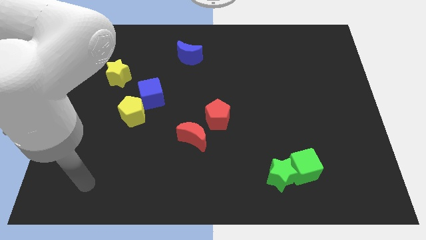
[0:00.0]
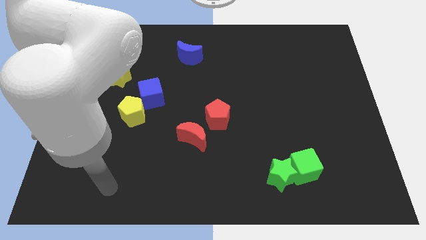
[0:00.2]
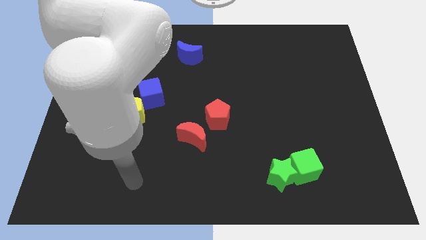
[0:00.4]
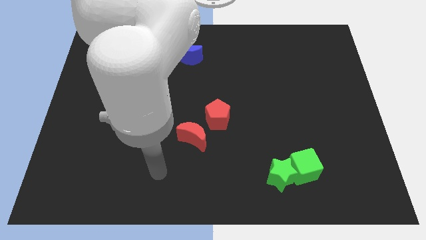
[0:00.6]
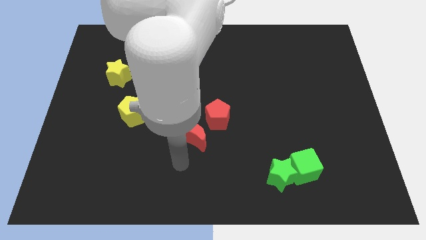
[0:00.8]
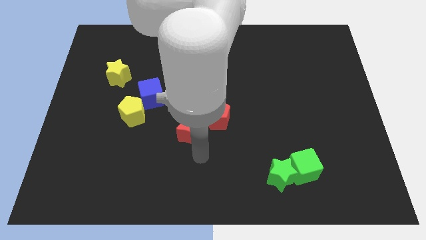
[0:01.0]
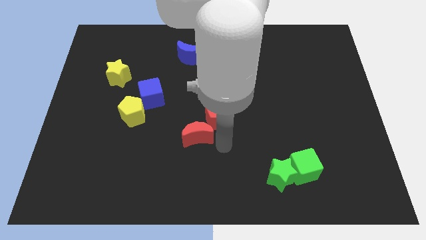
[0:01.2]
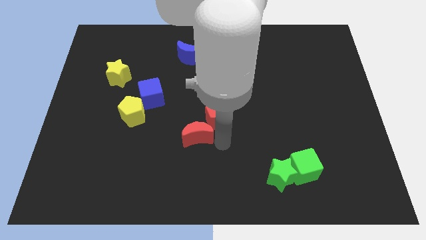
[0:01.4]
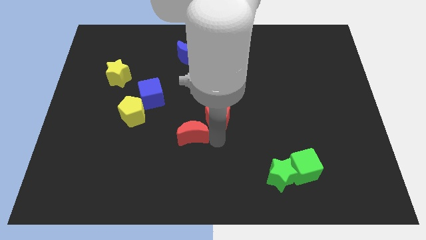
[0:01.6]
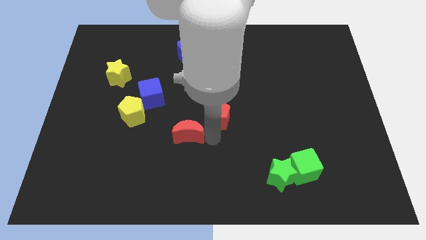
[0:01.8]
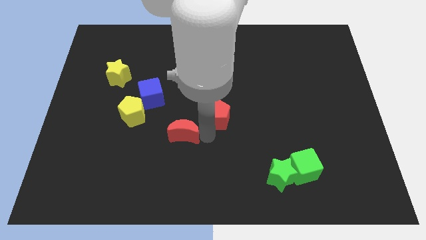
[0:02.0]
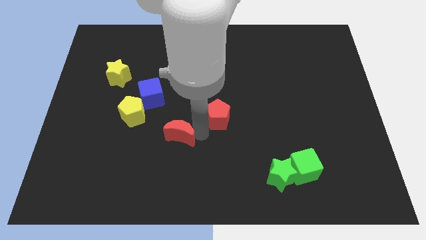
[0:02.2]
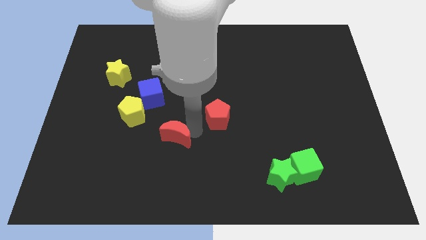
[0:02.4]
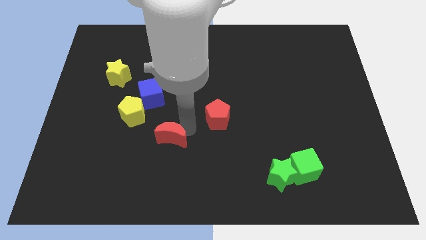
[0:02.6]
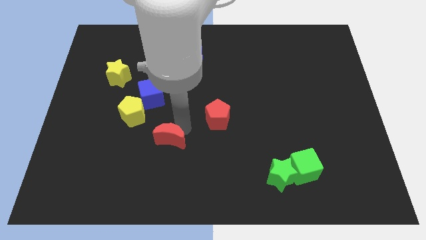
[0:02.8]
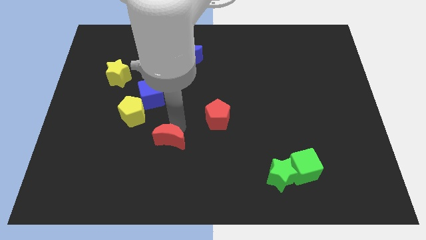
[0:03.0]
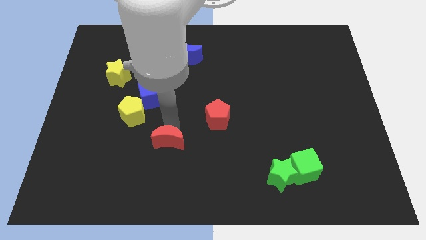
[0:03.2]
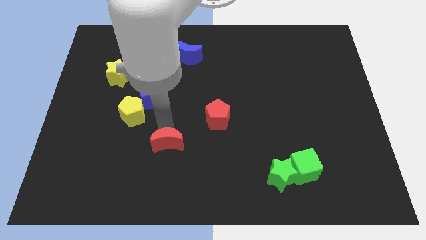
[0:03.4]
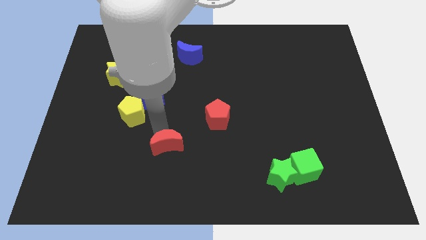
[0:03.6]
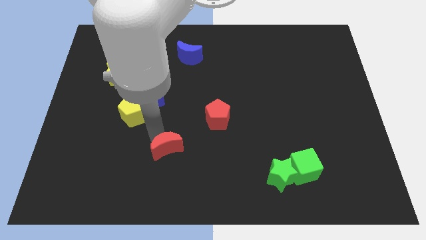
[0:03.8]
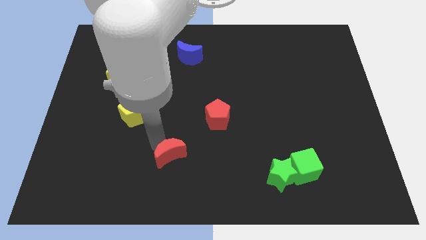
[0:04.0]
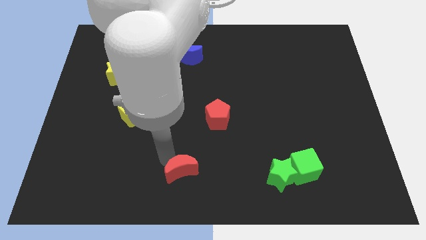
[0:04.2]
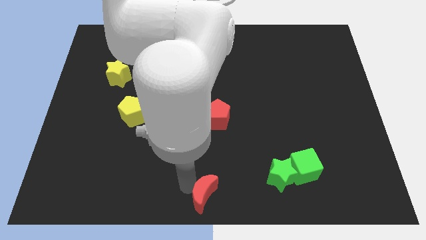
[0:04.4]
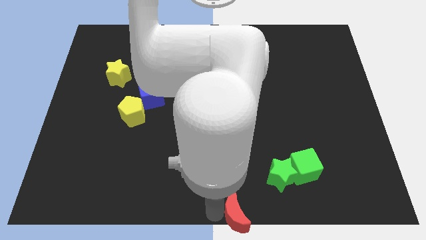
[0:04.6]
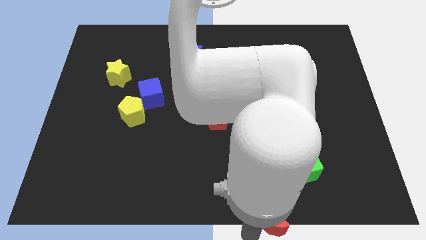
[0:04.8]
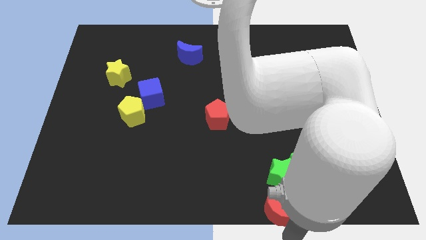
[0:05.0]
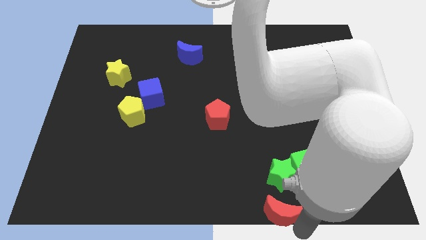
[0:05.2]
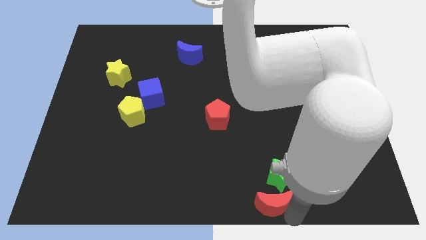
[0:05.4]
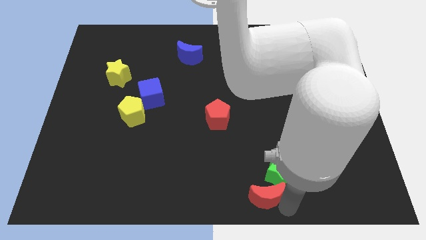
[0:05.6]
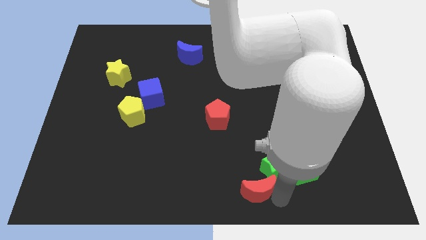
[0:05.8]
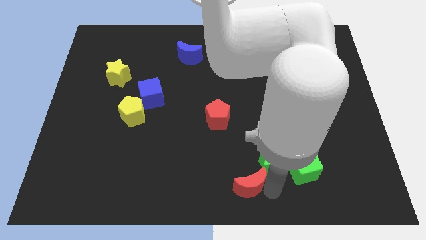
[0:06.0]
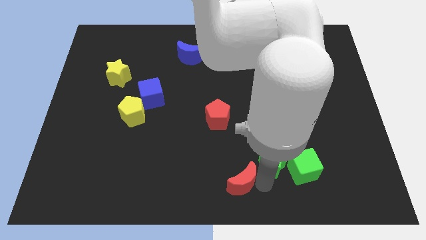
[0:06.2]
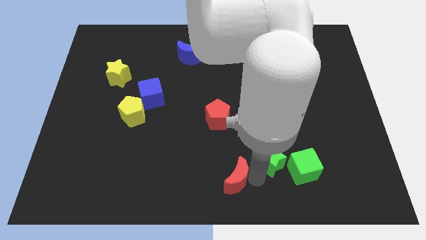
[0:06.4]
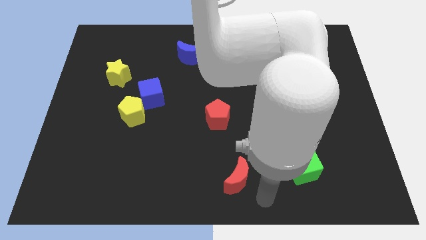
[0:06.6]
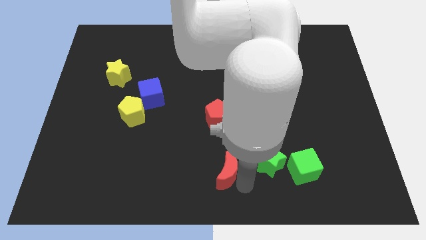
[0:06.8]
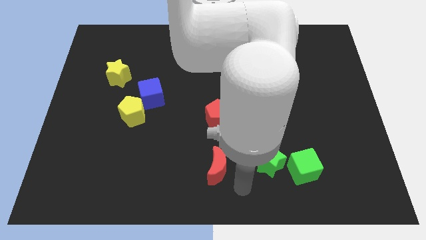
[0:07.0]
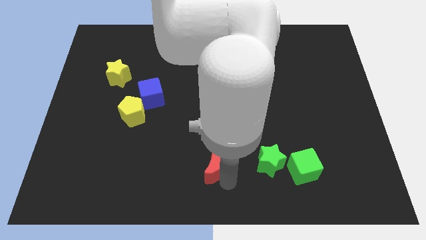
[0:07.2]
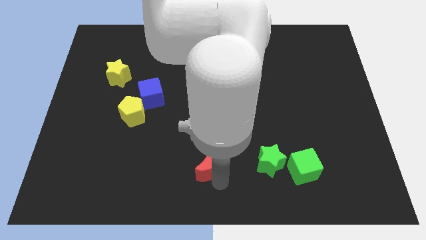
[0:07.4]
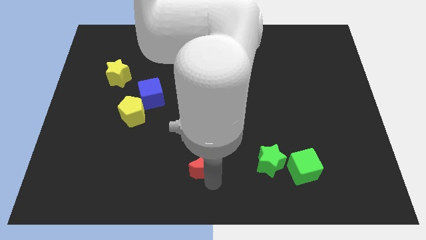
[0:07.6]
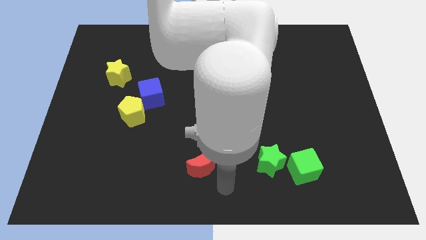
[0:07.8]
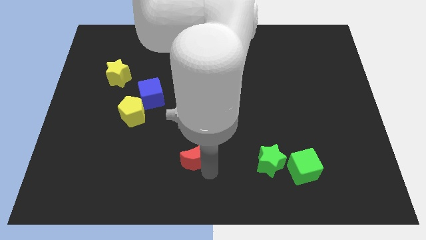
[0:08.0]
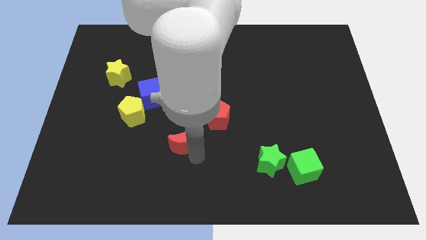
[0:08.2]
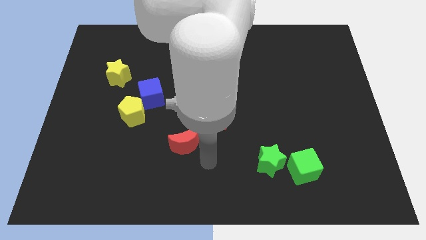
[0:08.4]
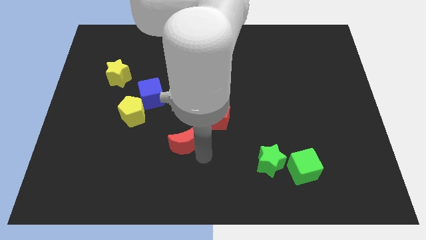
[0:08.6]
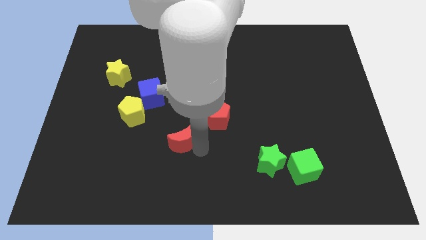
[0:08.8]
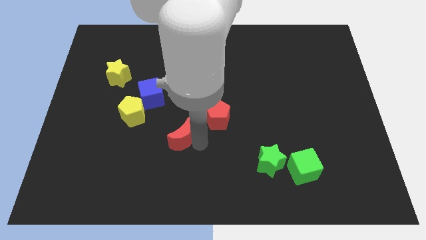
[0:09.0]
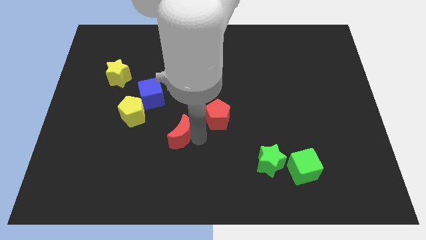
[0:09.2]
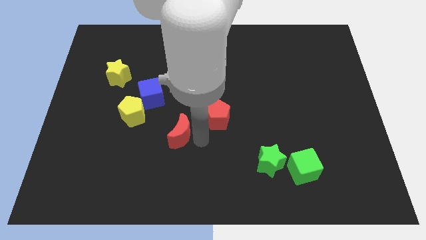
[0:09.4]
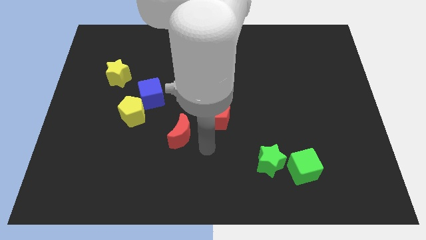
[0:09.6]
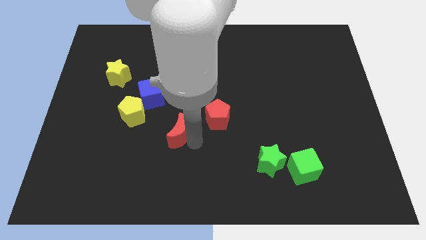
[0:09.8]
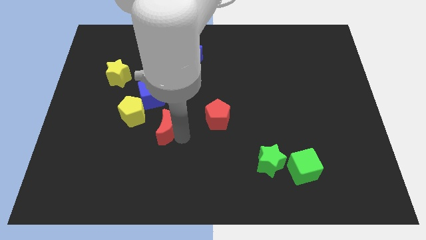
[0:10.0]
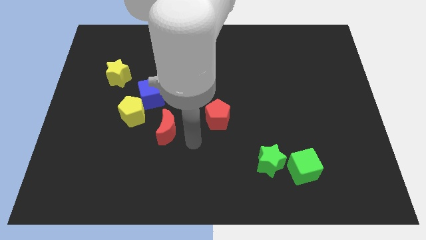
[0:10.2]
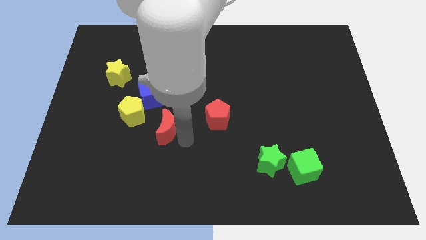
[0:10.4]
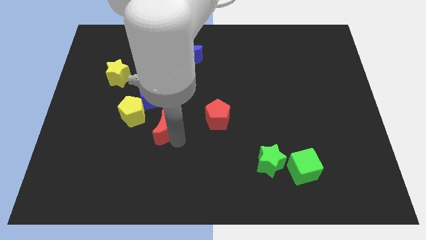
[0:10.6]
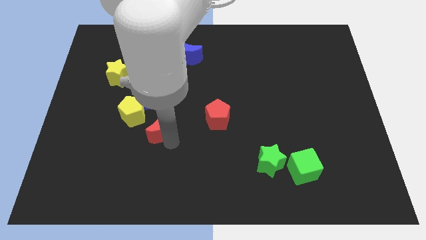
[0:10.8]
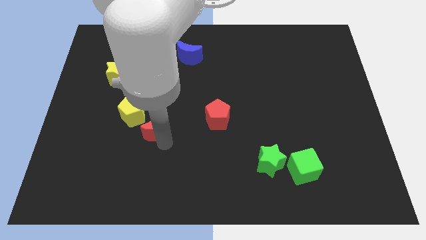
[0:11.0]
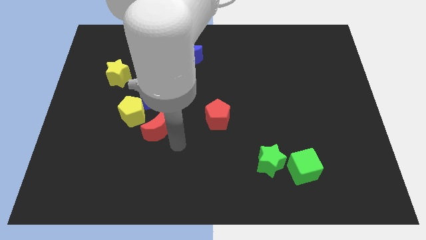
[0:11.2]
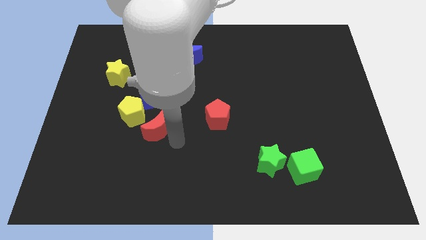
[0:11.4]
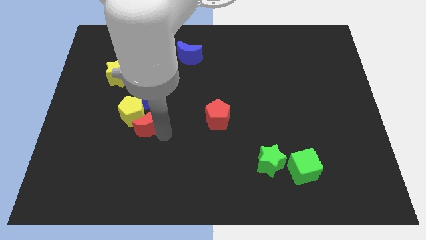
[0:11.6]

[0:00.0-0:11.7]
slide the red moon to the yellow pentagon

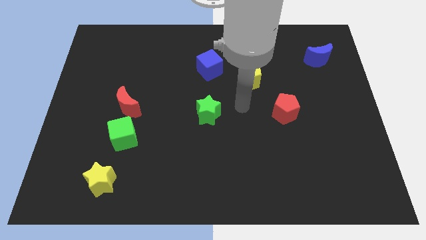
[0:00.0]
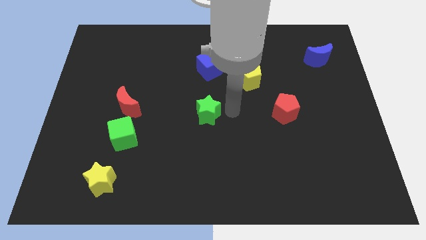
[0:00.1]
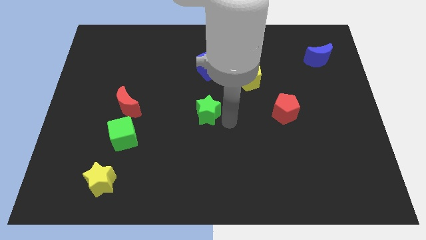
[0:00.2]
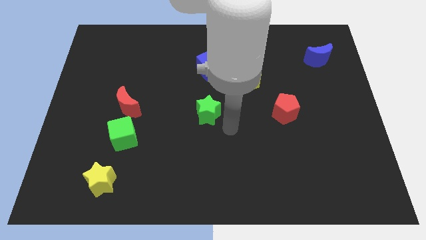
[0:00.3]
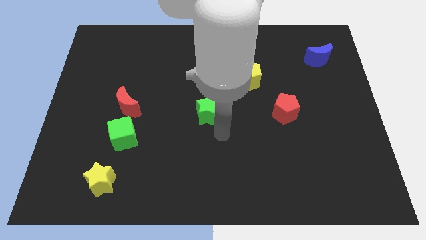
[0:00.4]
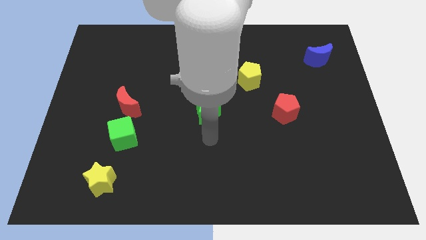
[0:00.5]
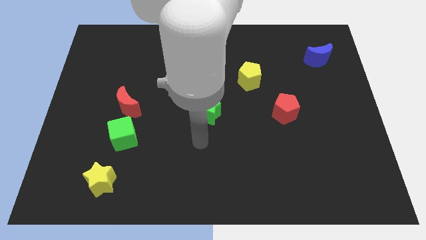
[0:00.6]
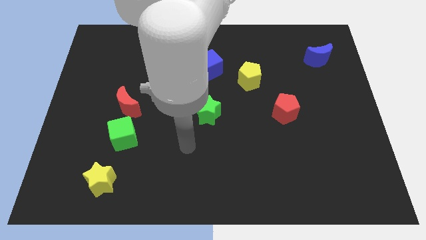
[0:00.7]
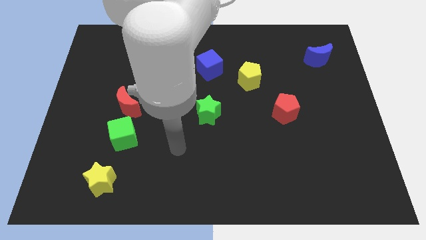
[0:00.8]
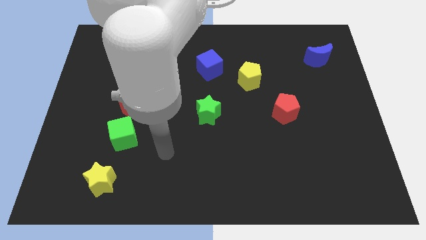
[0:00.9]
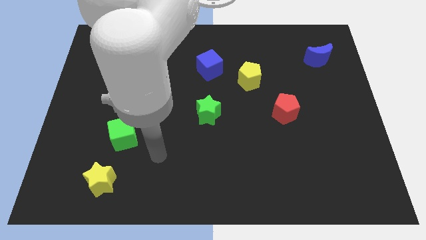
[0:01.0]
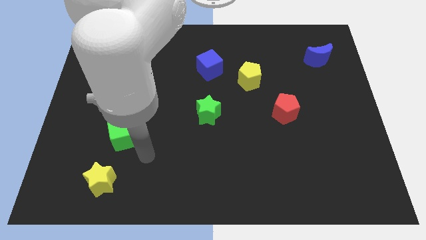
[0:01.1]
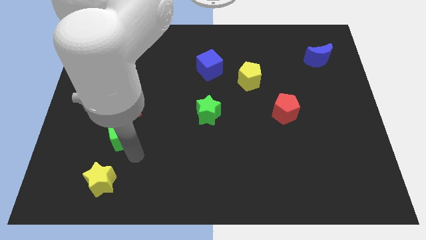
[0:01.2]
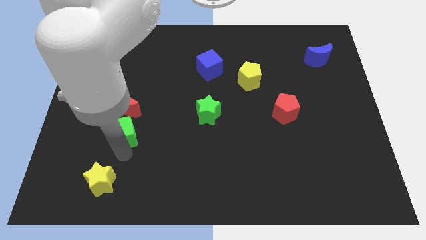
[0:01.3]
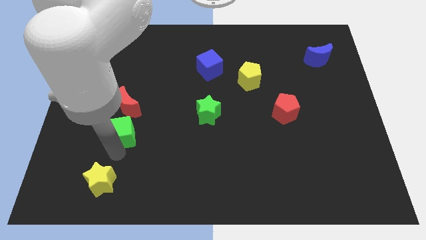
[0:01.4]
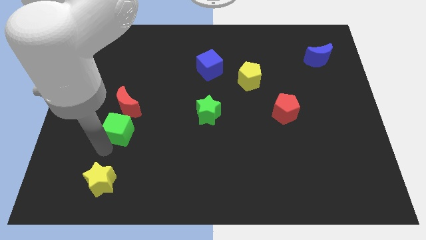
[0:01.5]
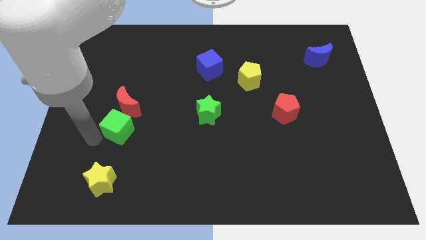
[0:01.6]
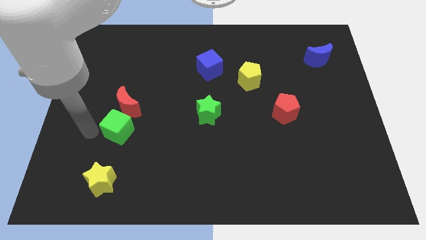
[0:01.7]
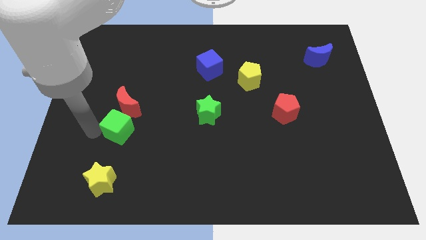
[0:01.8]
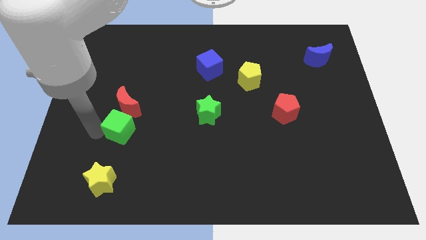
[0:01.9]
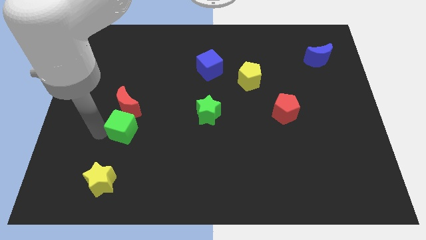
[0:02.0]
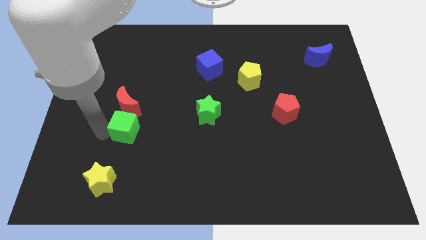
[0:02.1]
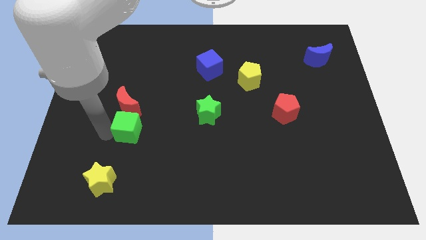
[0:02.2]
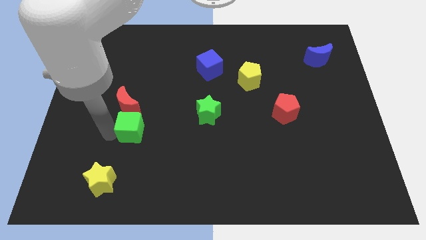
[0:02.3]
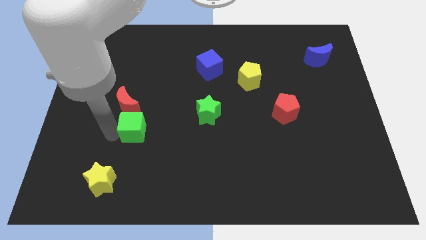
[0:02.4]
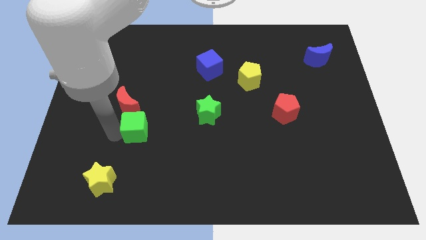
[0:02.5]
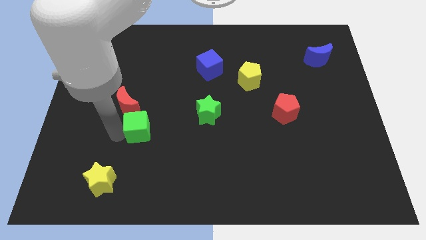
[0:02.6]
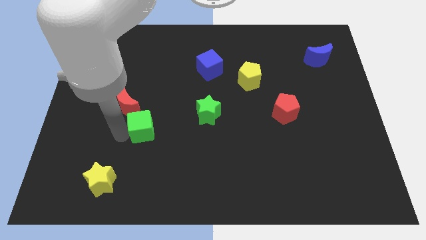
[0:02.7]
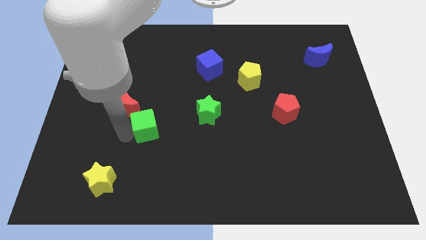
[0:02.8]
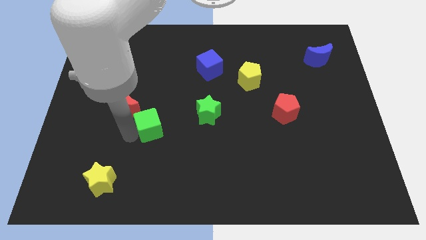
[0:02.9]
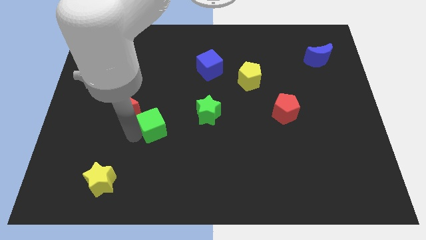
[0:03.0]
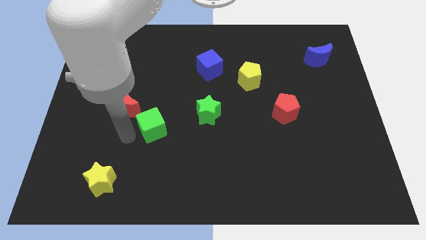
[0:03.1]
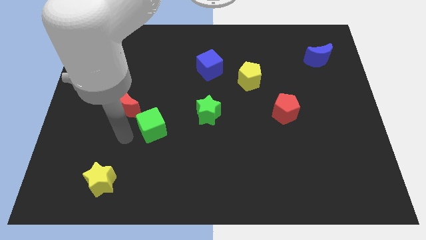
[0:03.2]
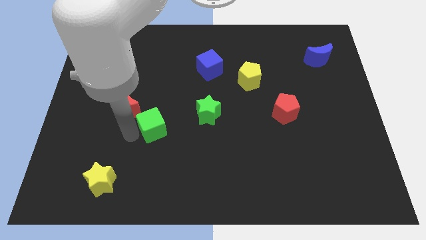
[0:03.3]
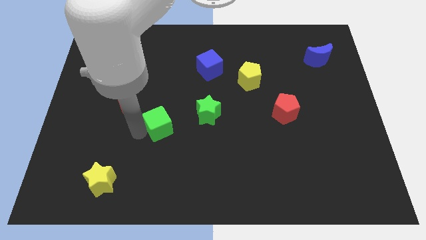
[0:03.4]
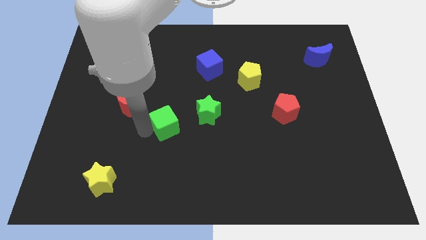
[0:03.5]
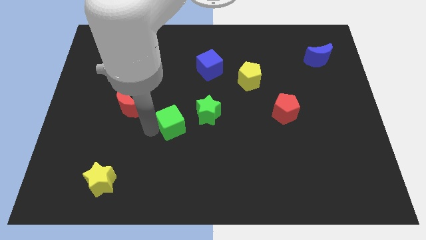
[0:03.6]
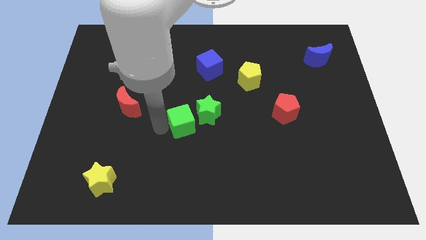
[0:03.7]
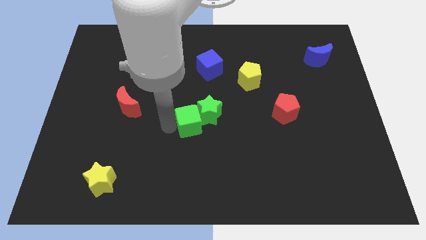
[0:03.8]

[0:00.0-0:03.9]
move the green cube to the green star
